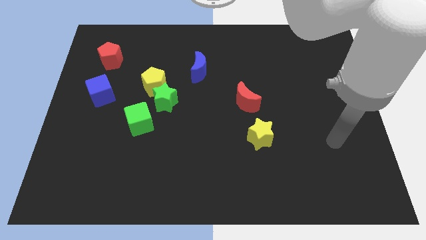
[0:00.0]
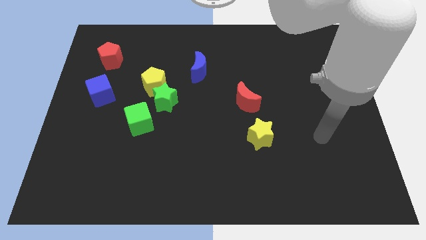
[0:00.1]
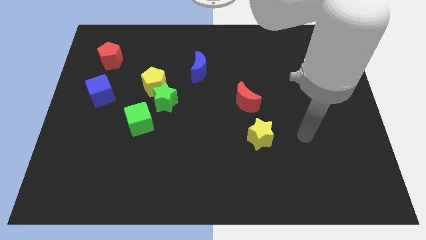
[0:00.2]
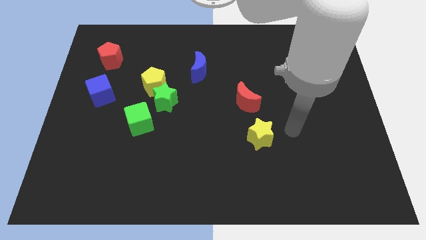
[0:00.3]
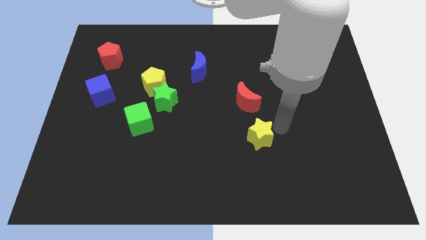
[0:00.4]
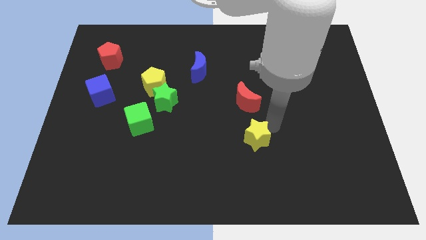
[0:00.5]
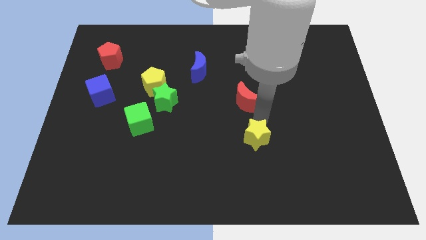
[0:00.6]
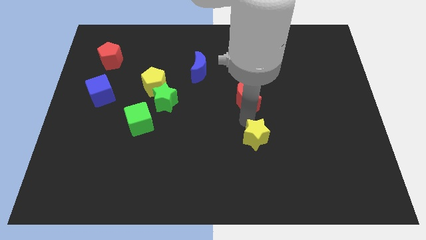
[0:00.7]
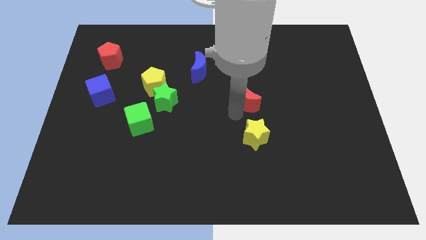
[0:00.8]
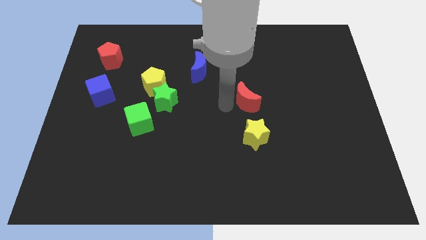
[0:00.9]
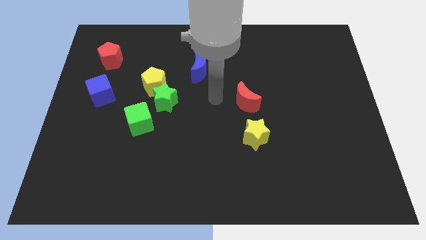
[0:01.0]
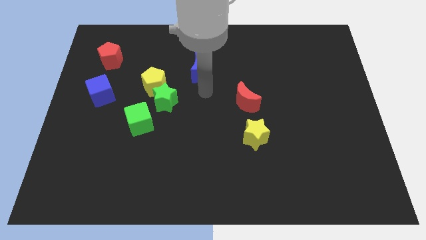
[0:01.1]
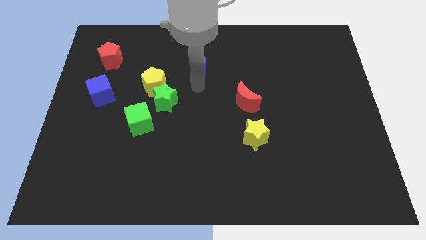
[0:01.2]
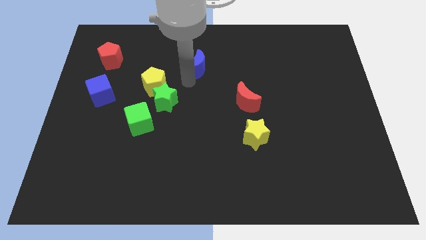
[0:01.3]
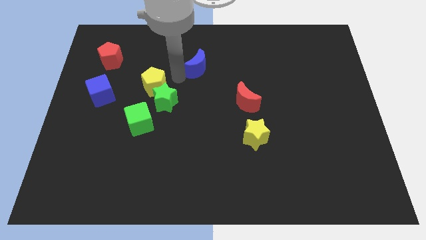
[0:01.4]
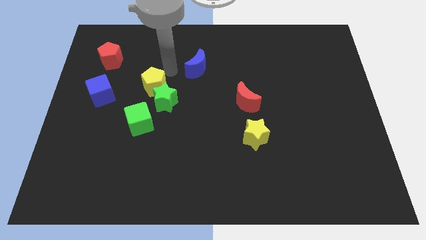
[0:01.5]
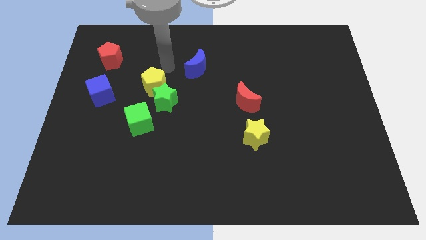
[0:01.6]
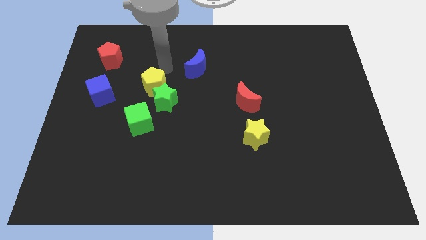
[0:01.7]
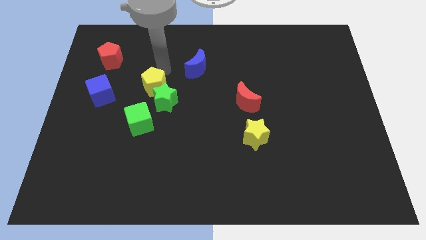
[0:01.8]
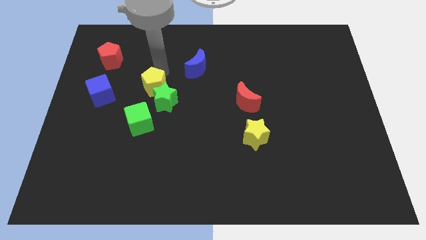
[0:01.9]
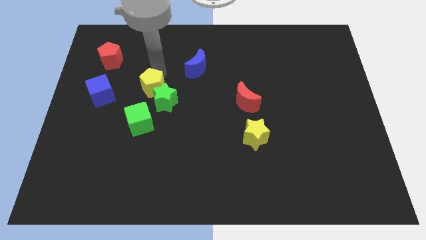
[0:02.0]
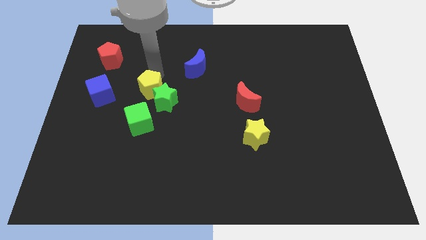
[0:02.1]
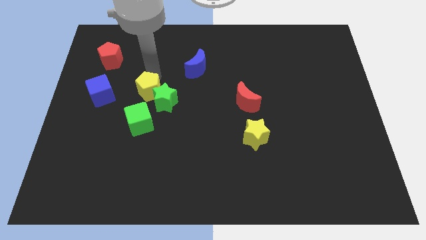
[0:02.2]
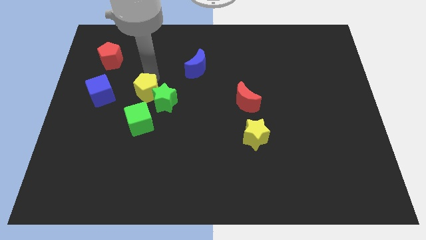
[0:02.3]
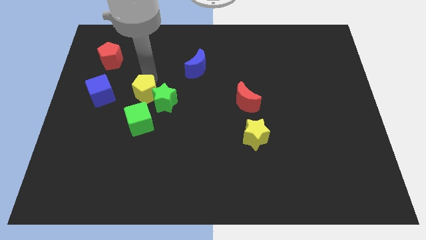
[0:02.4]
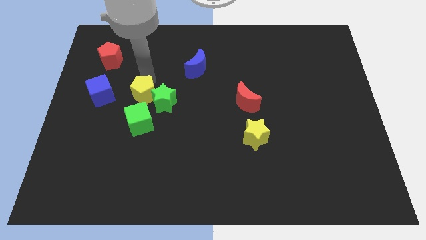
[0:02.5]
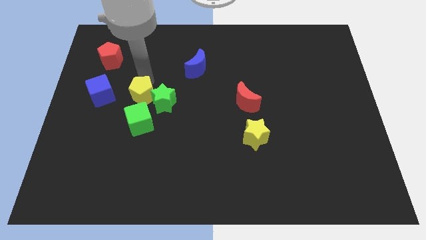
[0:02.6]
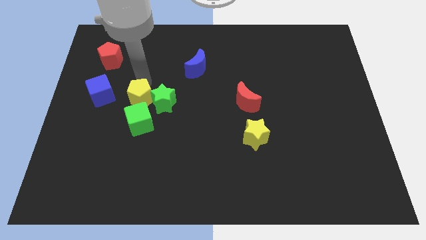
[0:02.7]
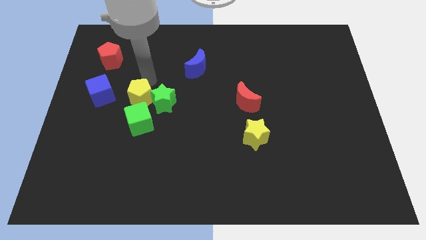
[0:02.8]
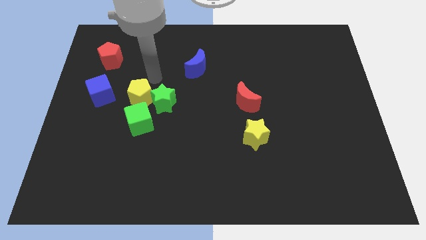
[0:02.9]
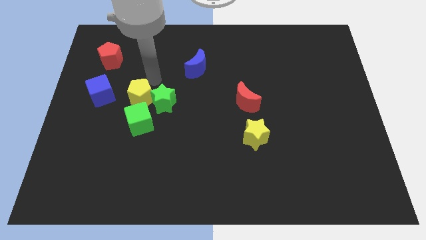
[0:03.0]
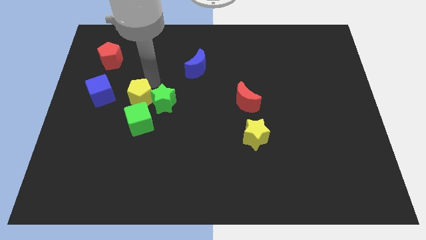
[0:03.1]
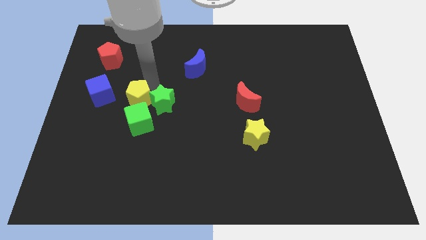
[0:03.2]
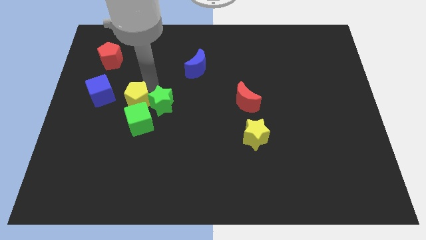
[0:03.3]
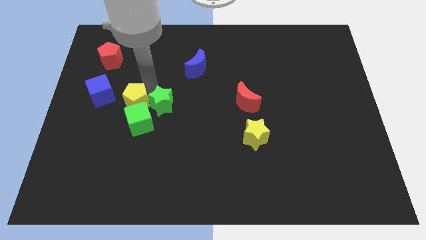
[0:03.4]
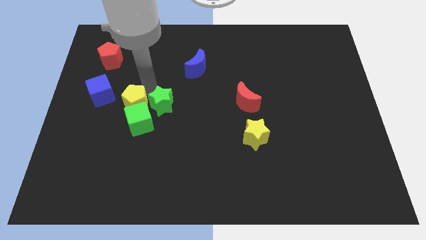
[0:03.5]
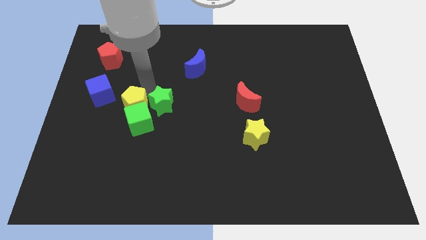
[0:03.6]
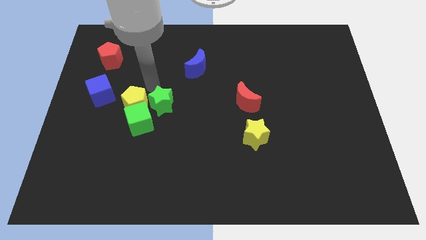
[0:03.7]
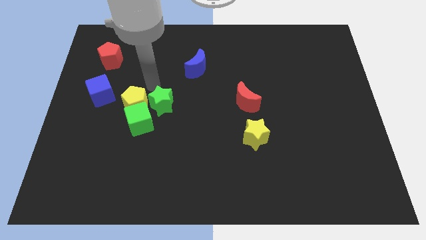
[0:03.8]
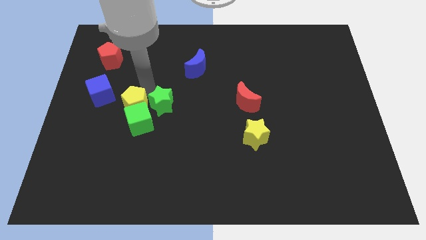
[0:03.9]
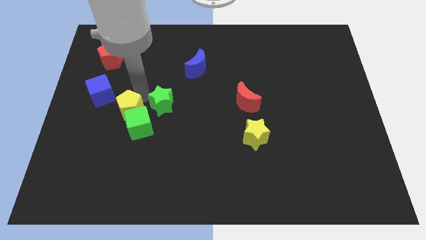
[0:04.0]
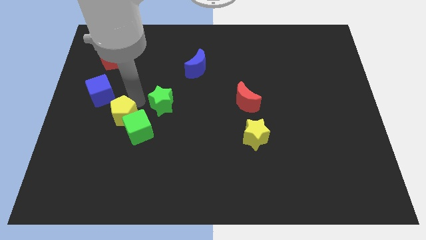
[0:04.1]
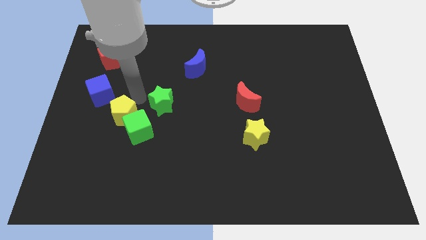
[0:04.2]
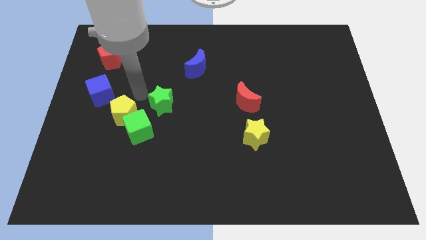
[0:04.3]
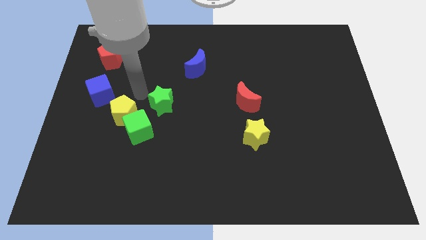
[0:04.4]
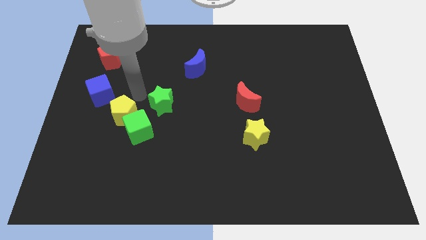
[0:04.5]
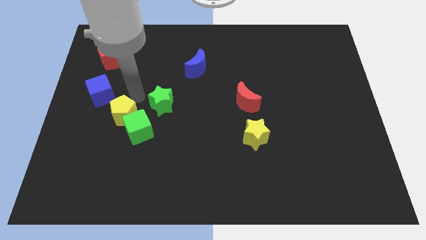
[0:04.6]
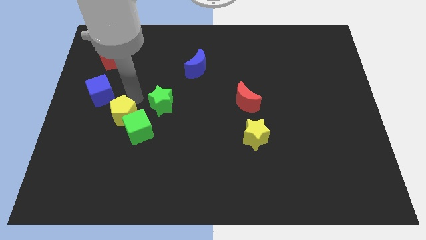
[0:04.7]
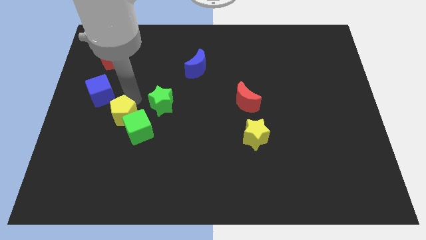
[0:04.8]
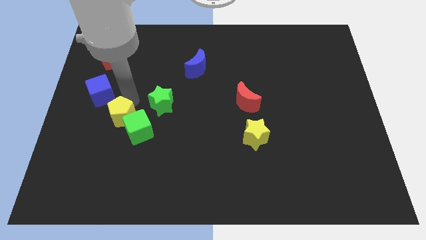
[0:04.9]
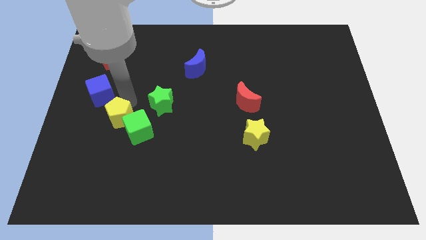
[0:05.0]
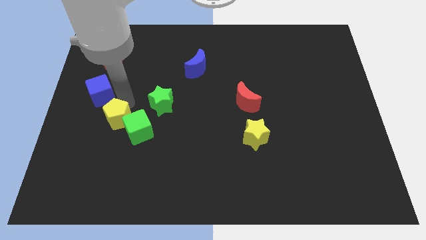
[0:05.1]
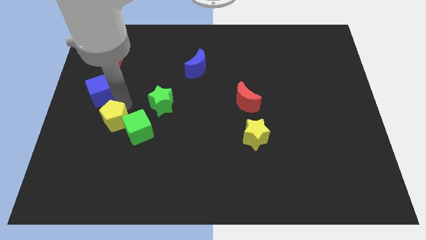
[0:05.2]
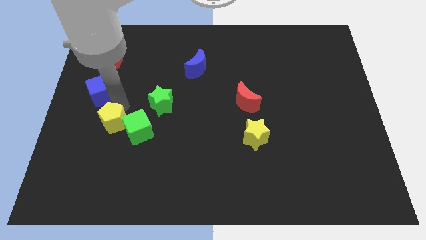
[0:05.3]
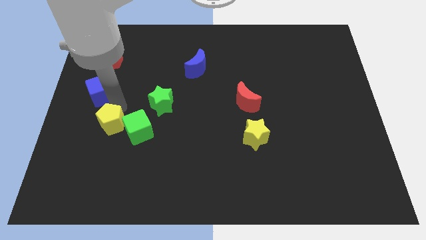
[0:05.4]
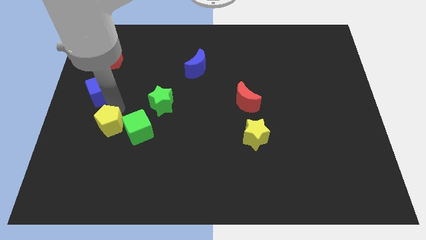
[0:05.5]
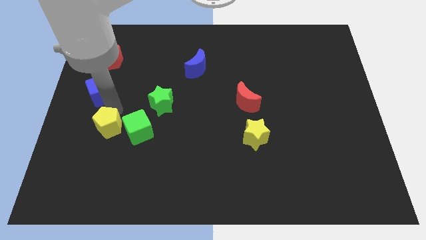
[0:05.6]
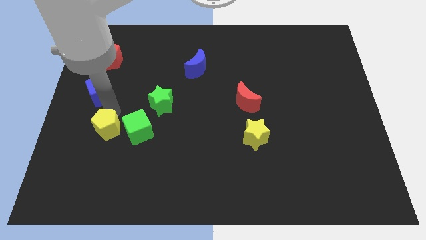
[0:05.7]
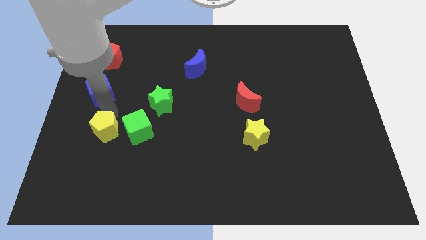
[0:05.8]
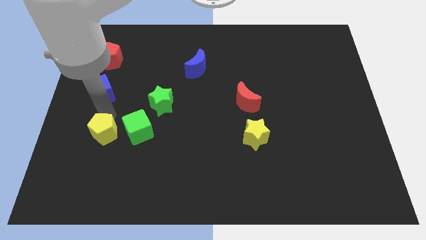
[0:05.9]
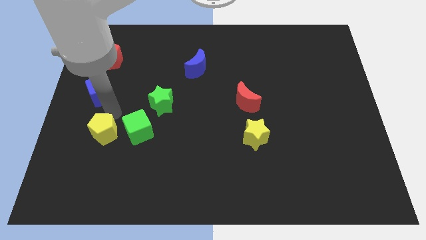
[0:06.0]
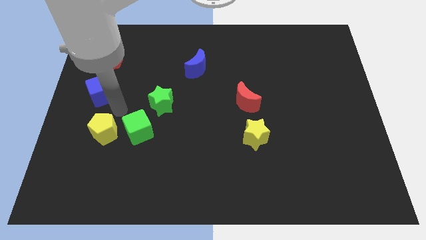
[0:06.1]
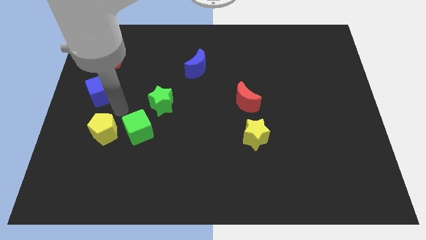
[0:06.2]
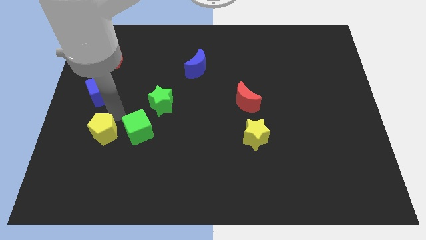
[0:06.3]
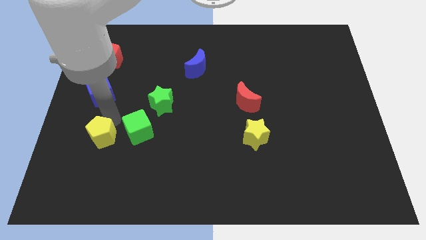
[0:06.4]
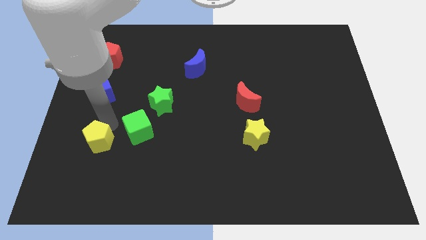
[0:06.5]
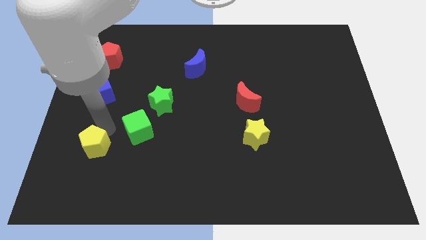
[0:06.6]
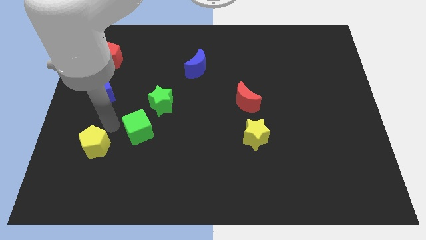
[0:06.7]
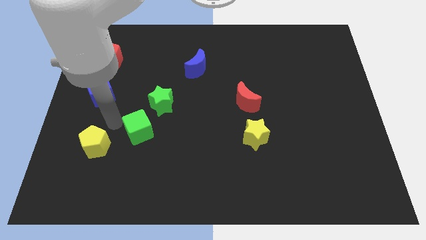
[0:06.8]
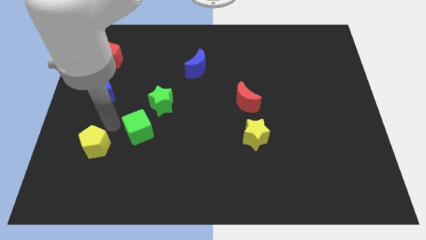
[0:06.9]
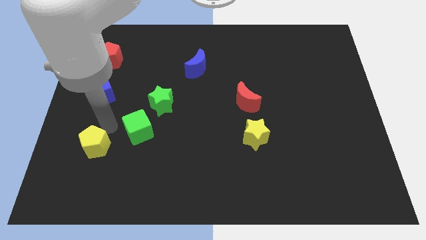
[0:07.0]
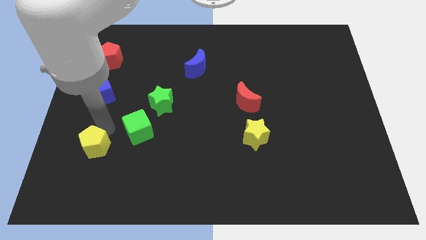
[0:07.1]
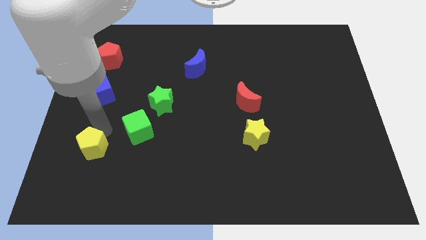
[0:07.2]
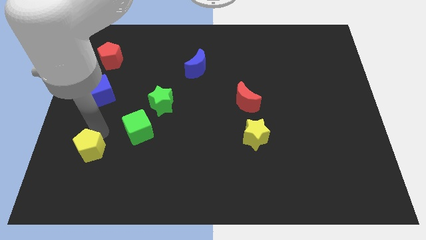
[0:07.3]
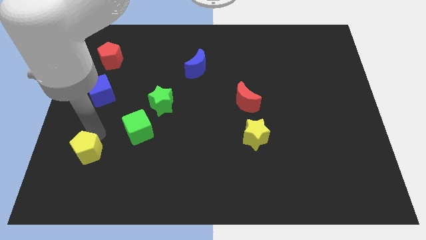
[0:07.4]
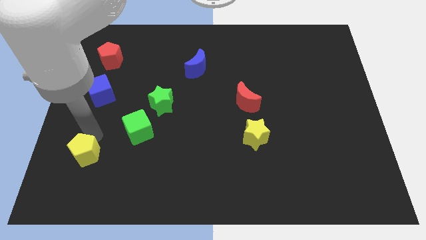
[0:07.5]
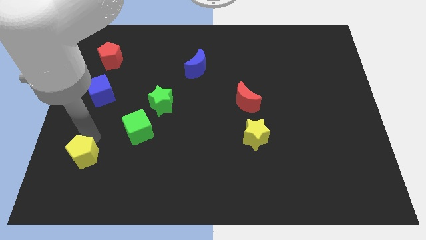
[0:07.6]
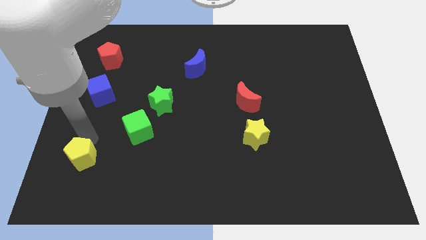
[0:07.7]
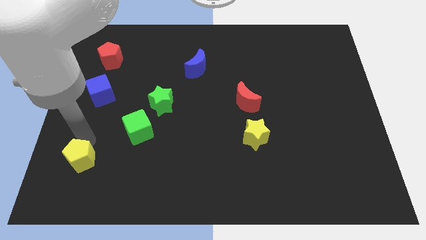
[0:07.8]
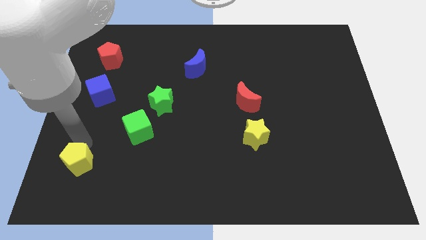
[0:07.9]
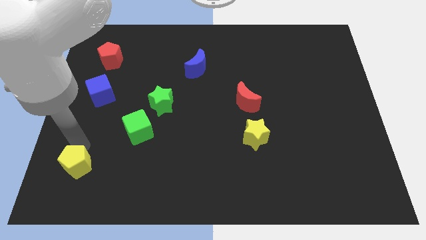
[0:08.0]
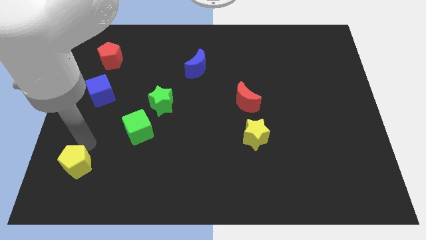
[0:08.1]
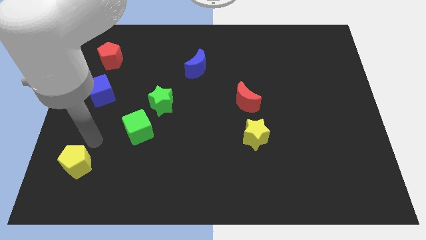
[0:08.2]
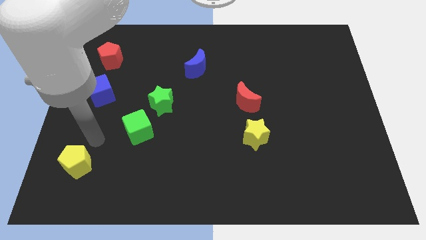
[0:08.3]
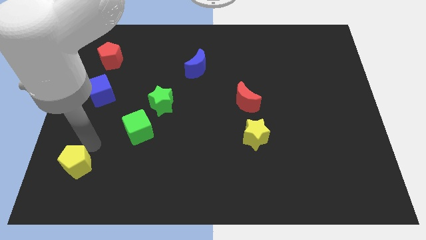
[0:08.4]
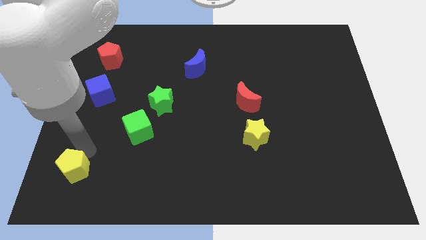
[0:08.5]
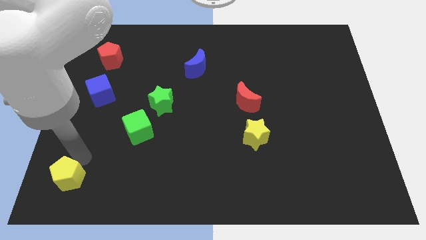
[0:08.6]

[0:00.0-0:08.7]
slide the yellow pentagon to the bottom left corner
